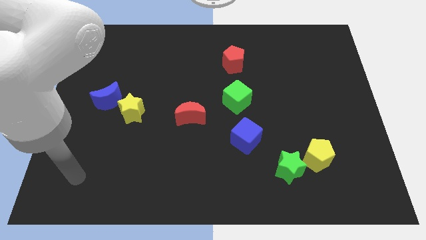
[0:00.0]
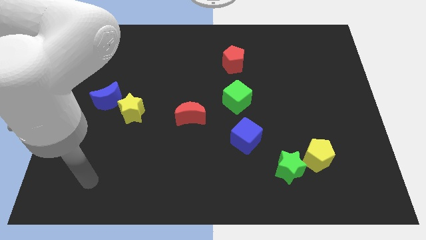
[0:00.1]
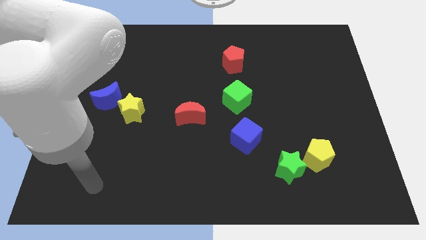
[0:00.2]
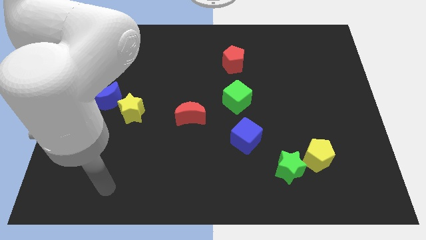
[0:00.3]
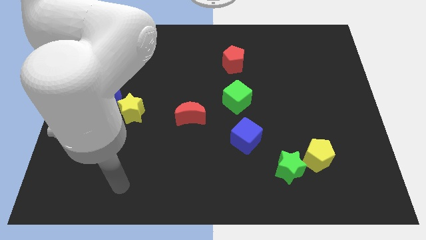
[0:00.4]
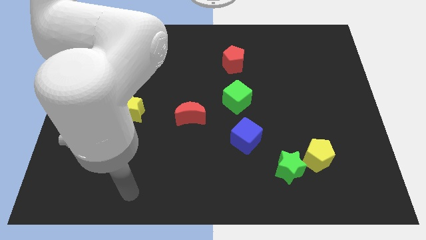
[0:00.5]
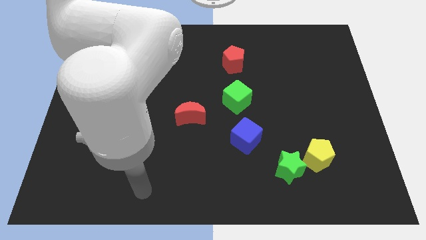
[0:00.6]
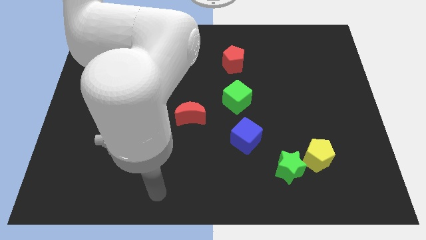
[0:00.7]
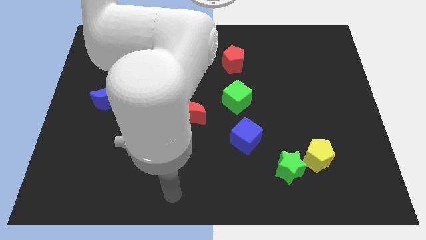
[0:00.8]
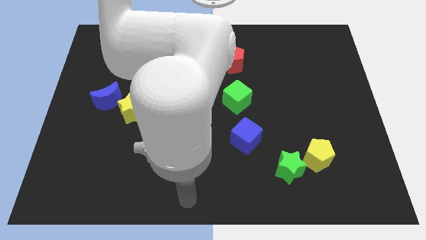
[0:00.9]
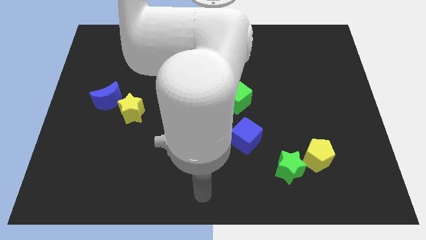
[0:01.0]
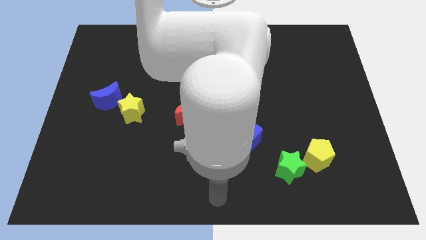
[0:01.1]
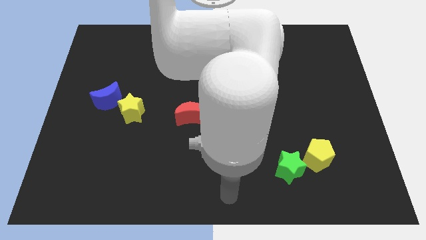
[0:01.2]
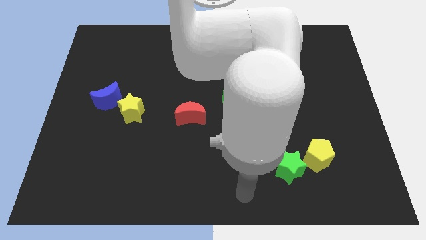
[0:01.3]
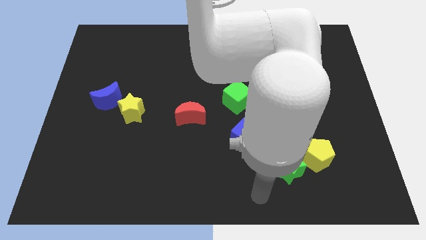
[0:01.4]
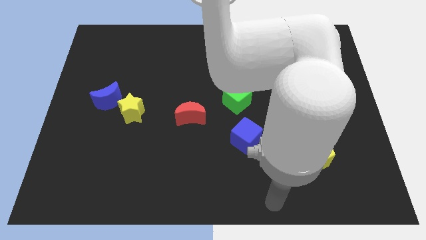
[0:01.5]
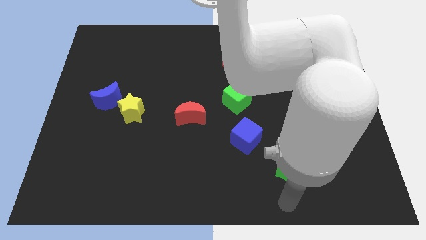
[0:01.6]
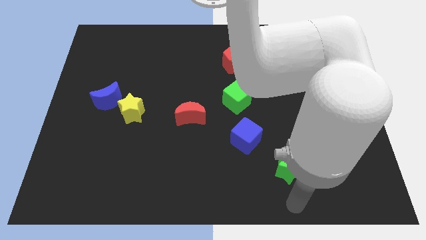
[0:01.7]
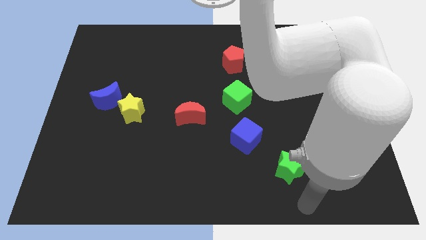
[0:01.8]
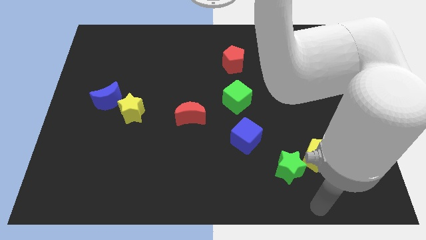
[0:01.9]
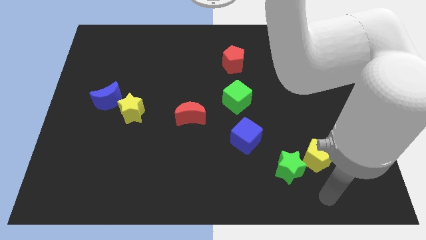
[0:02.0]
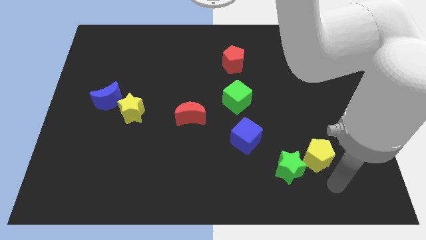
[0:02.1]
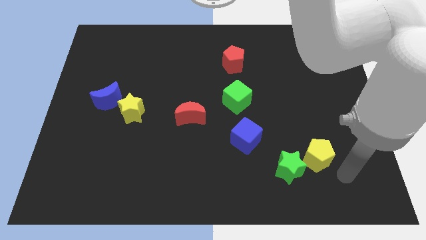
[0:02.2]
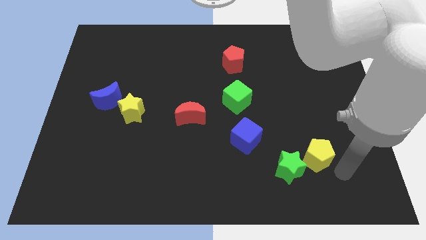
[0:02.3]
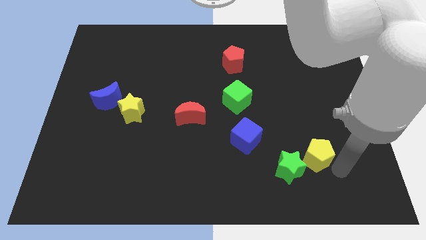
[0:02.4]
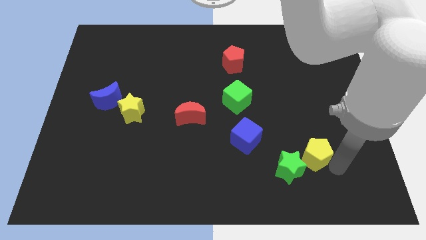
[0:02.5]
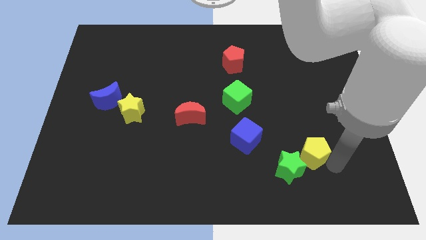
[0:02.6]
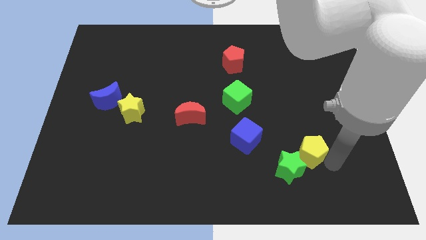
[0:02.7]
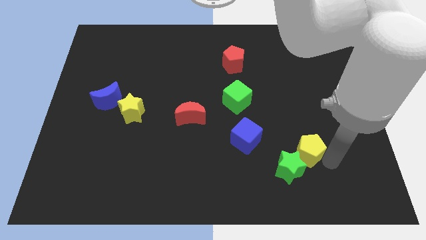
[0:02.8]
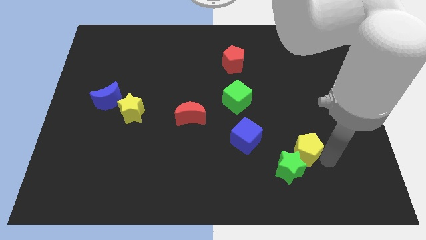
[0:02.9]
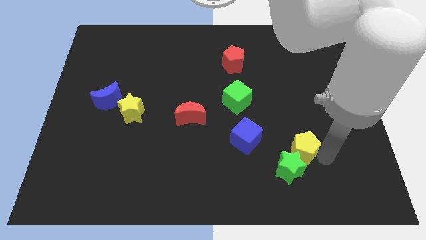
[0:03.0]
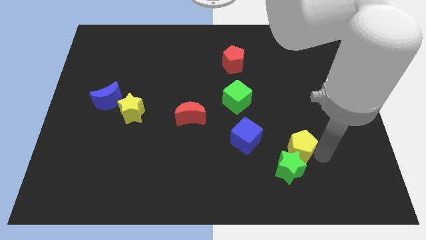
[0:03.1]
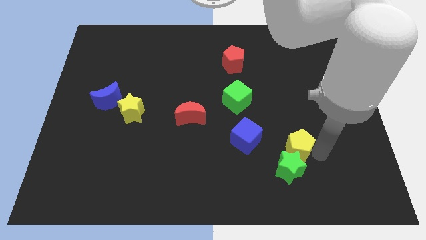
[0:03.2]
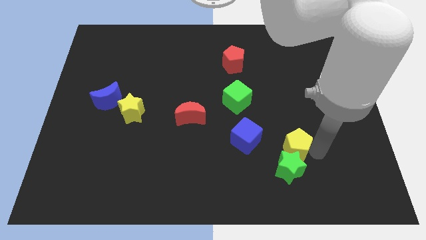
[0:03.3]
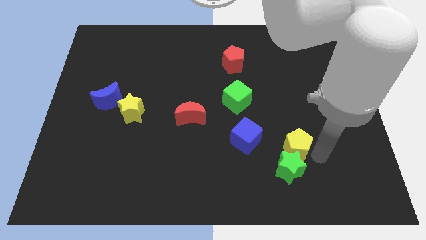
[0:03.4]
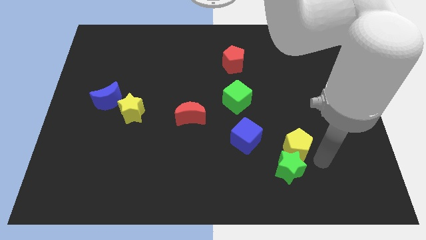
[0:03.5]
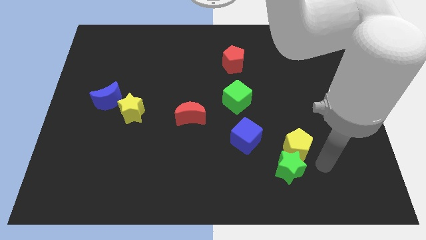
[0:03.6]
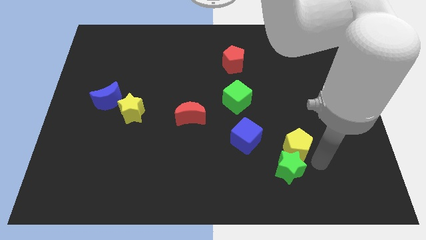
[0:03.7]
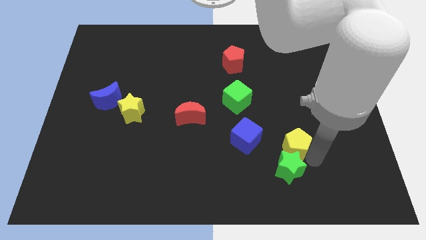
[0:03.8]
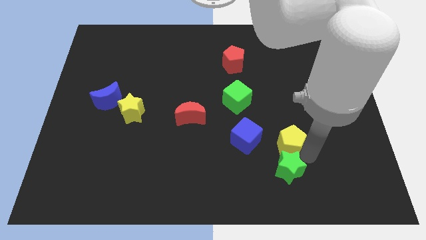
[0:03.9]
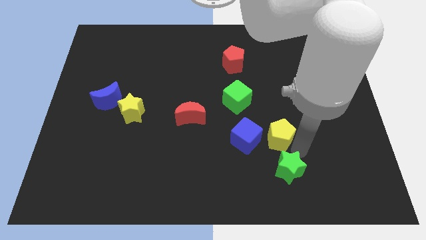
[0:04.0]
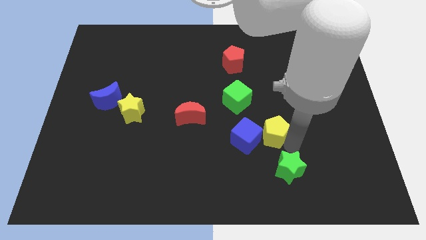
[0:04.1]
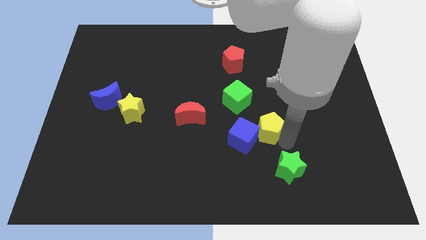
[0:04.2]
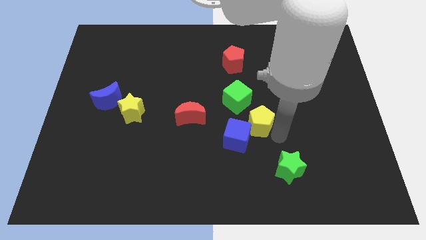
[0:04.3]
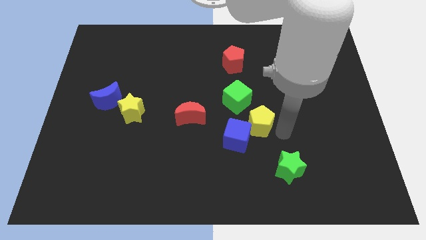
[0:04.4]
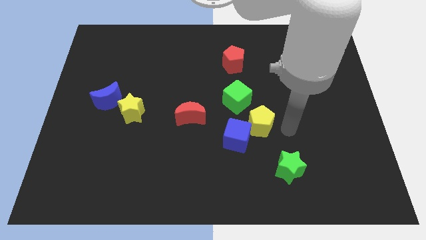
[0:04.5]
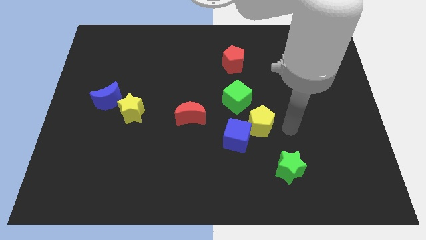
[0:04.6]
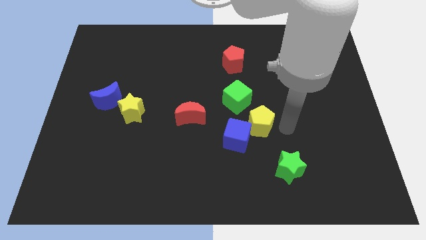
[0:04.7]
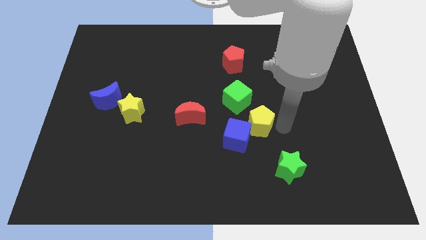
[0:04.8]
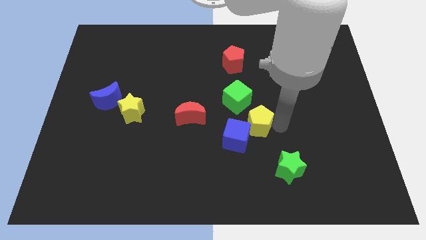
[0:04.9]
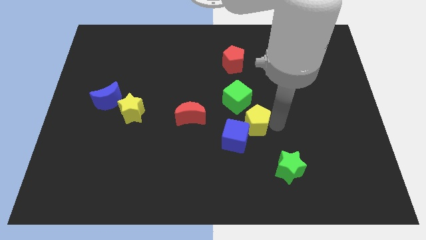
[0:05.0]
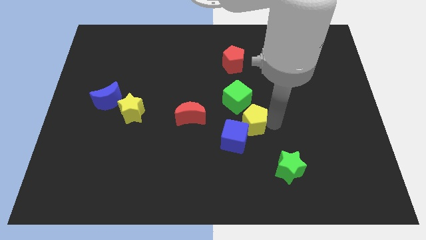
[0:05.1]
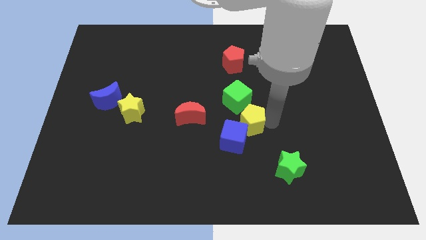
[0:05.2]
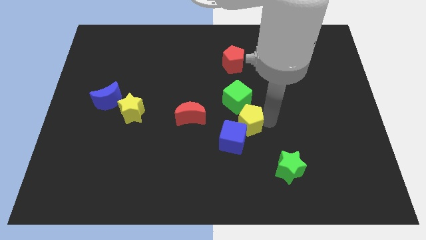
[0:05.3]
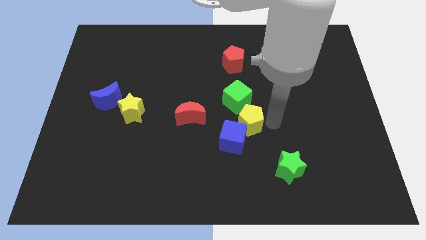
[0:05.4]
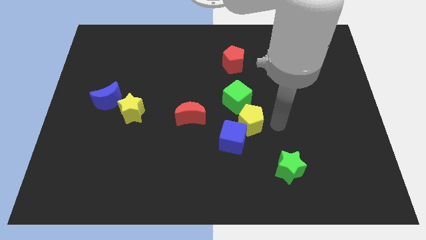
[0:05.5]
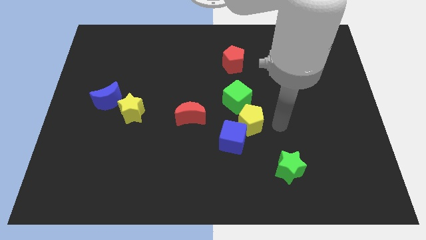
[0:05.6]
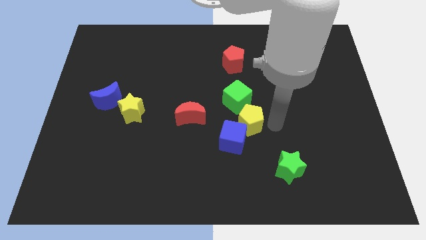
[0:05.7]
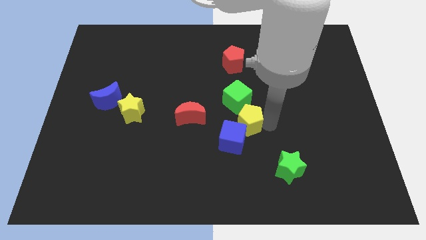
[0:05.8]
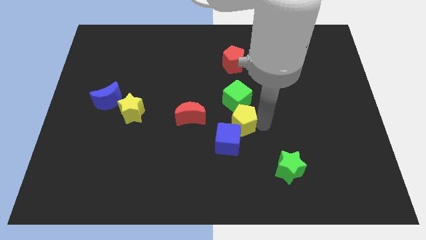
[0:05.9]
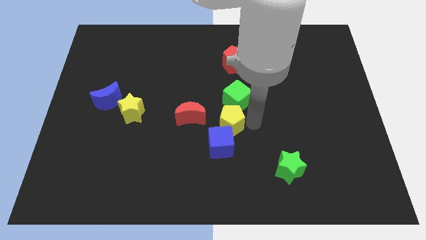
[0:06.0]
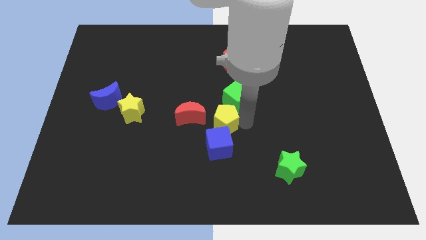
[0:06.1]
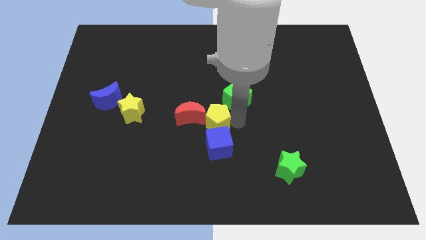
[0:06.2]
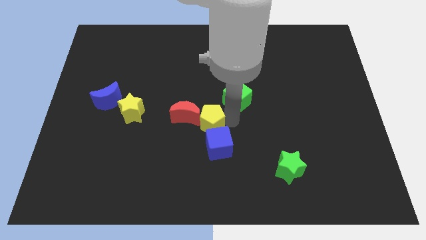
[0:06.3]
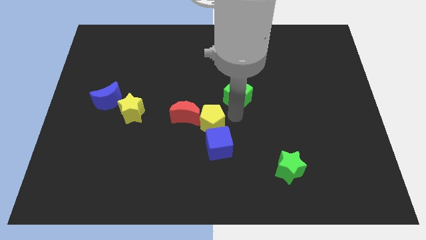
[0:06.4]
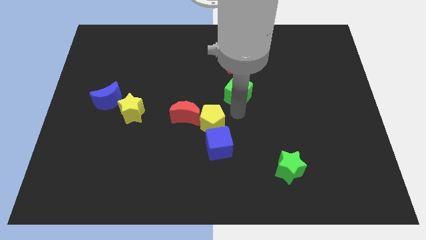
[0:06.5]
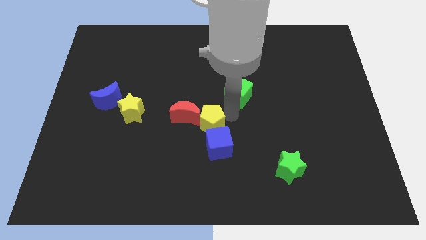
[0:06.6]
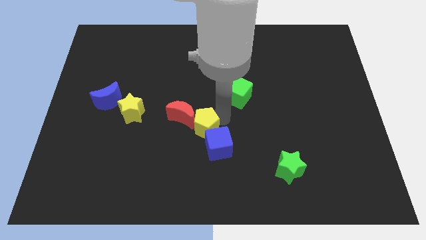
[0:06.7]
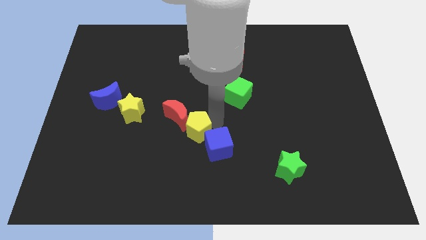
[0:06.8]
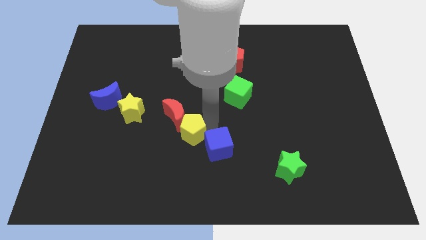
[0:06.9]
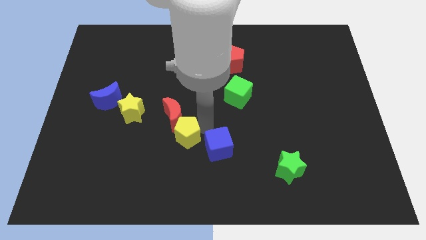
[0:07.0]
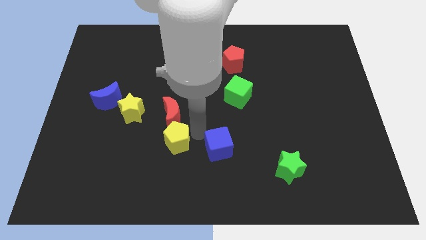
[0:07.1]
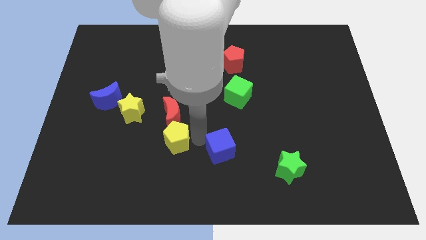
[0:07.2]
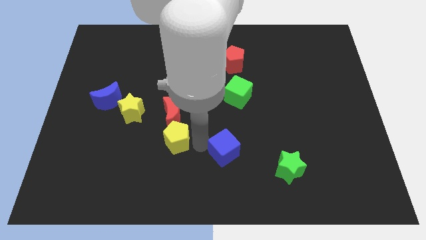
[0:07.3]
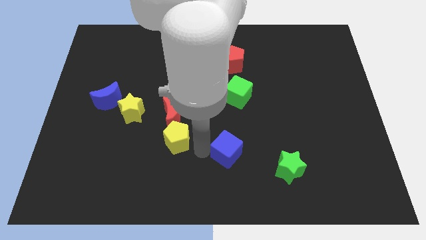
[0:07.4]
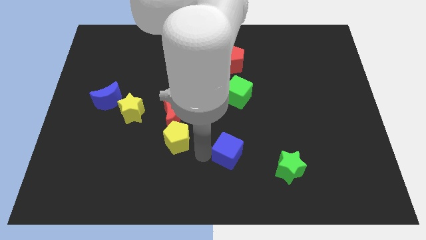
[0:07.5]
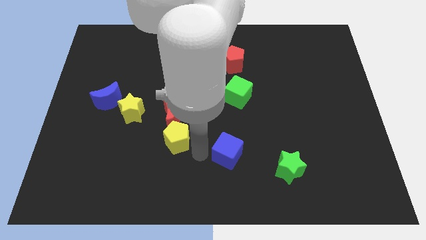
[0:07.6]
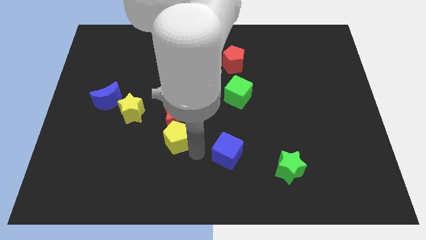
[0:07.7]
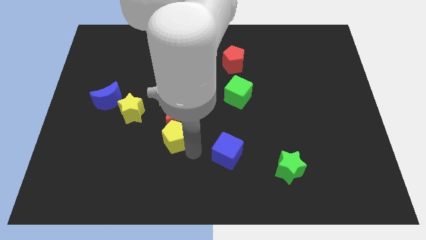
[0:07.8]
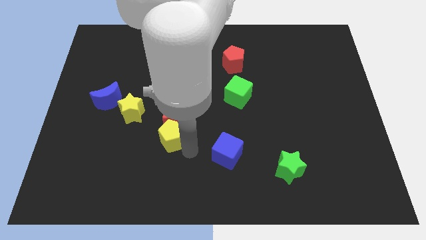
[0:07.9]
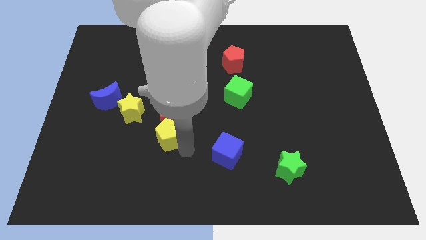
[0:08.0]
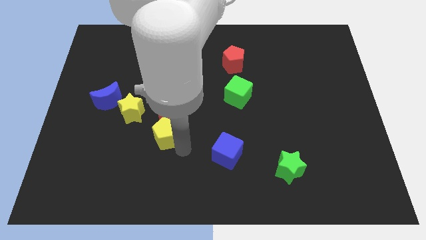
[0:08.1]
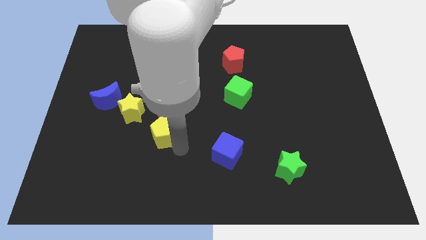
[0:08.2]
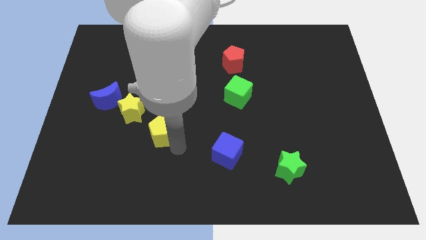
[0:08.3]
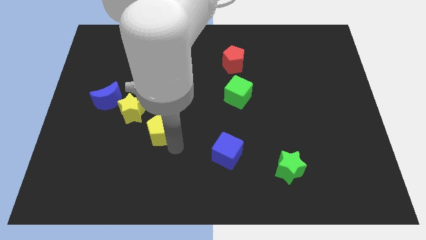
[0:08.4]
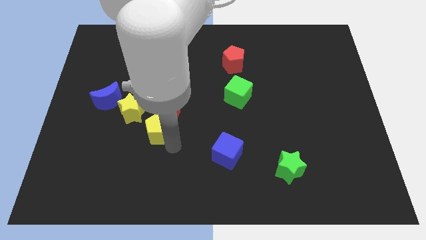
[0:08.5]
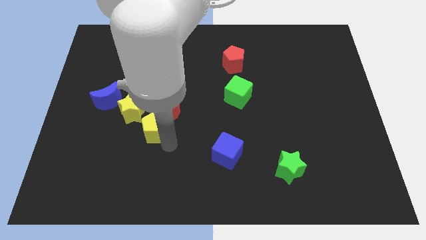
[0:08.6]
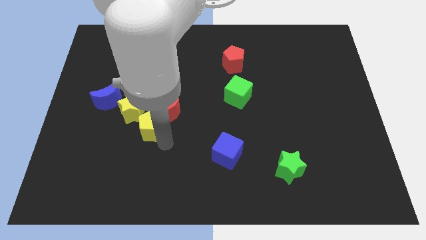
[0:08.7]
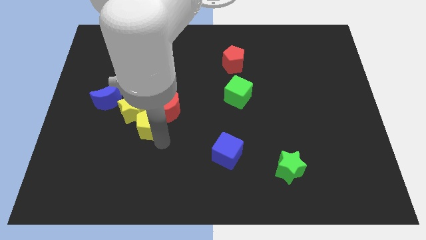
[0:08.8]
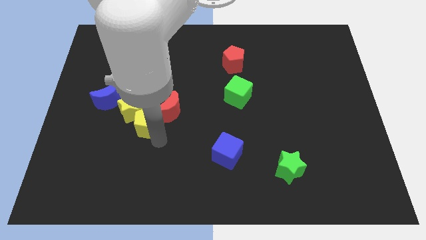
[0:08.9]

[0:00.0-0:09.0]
push the yellow pentagon close to the yellow star
